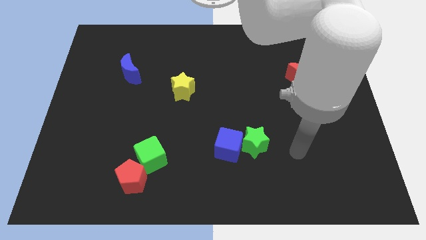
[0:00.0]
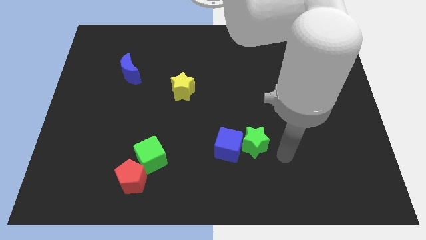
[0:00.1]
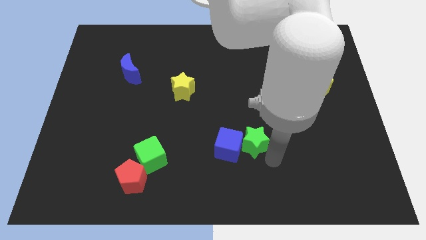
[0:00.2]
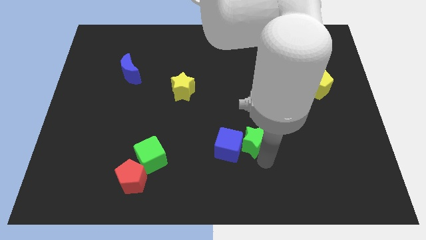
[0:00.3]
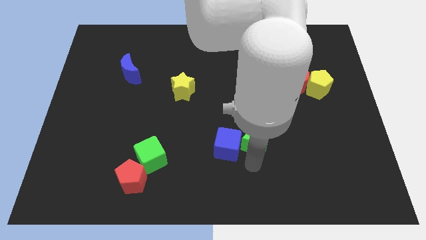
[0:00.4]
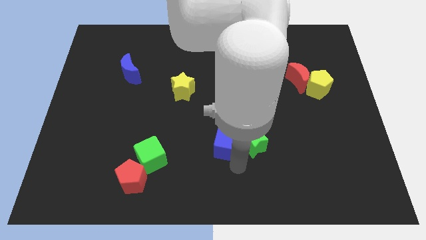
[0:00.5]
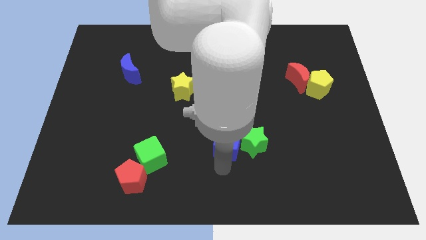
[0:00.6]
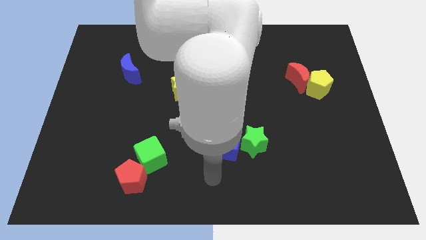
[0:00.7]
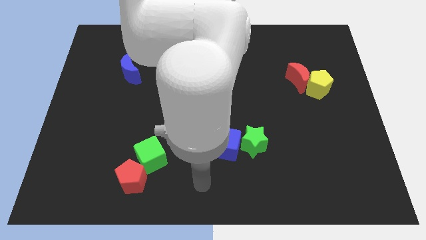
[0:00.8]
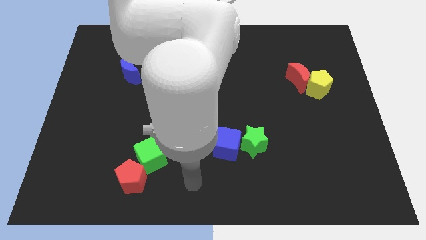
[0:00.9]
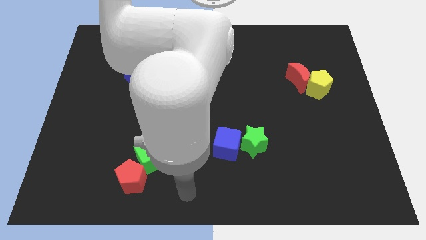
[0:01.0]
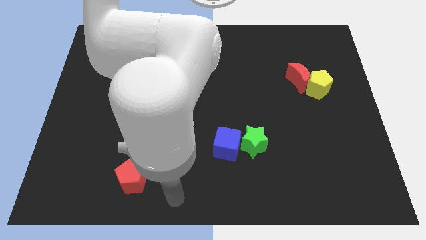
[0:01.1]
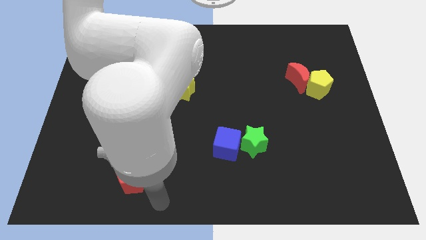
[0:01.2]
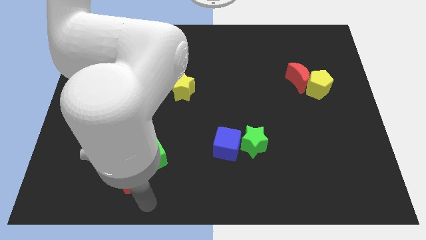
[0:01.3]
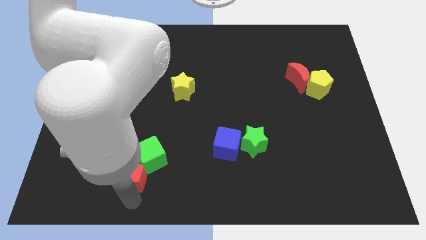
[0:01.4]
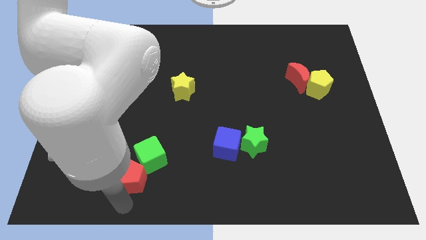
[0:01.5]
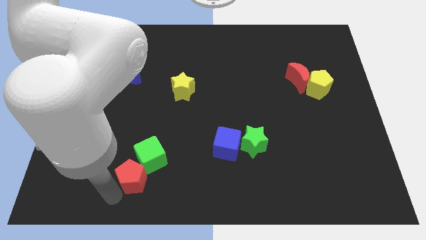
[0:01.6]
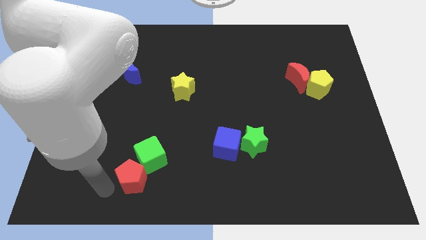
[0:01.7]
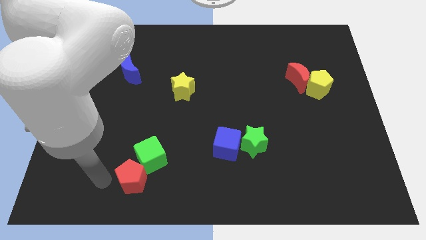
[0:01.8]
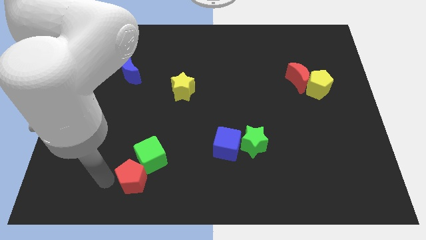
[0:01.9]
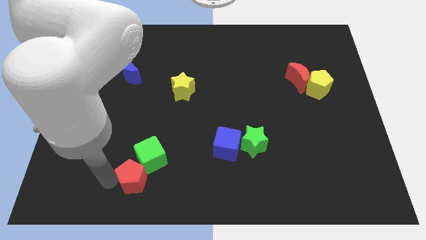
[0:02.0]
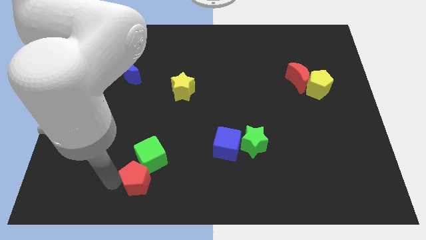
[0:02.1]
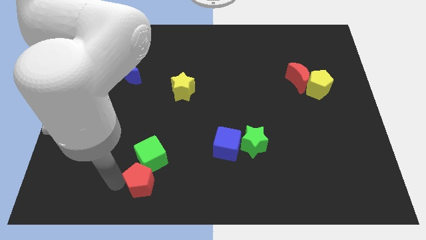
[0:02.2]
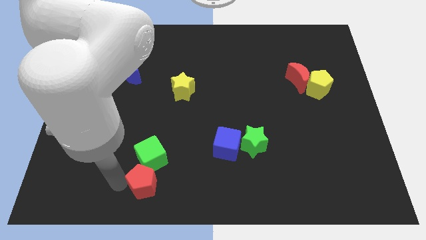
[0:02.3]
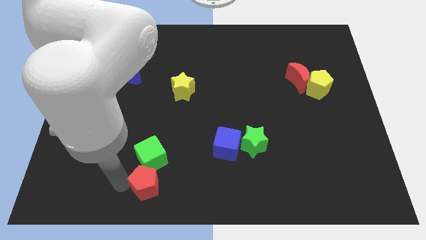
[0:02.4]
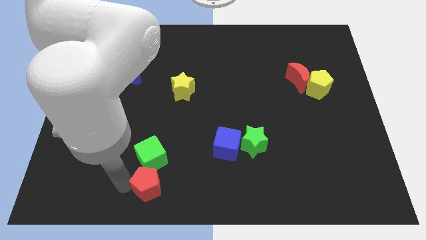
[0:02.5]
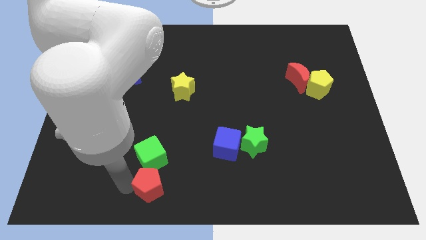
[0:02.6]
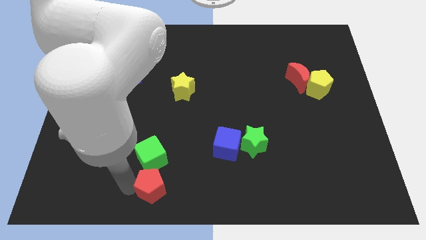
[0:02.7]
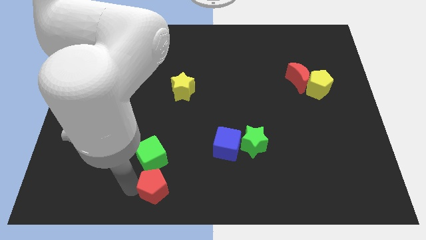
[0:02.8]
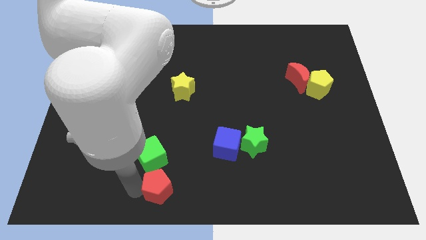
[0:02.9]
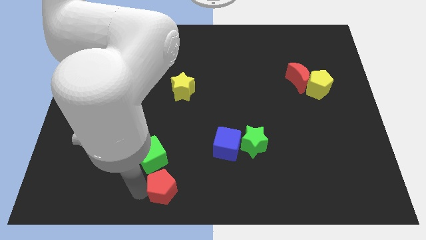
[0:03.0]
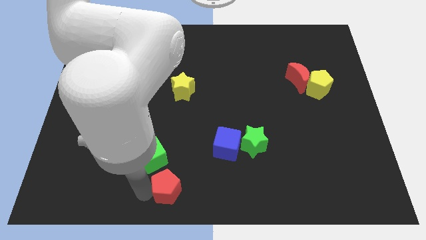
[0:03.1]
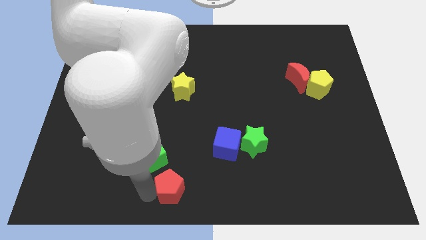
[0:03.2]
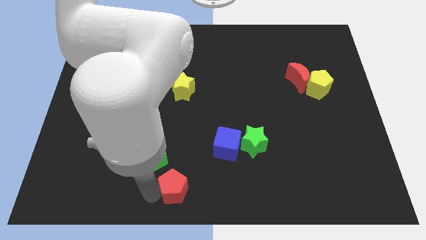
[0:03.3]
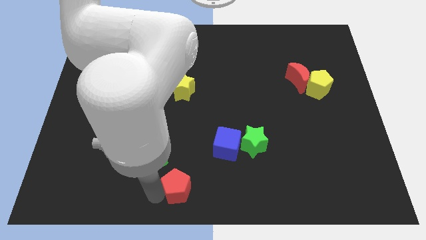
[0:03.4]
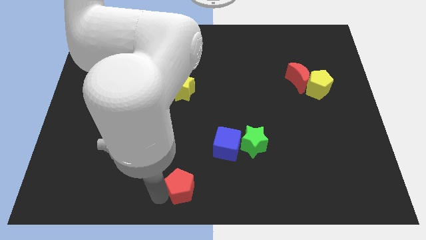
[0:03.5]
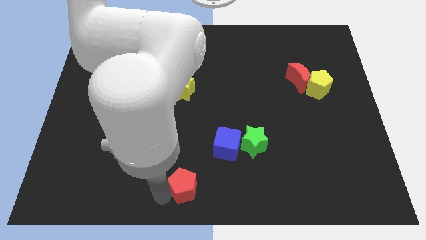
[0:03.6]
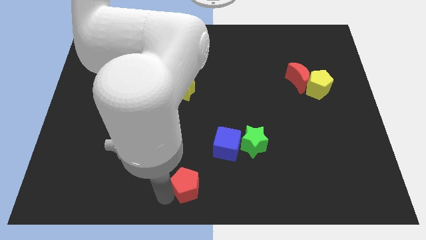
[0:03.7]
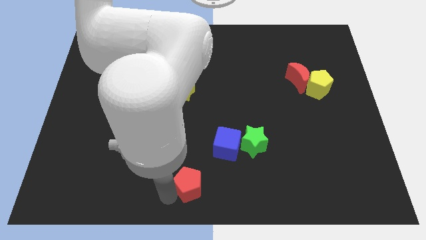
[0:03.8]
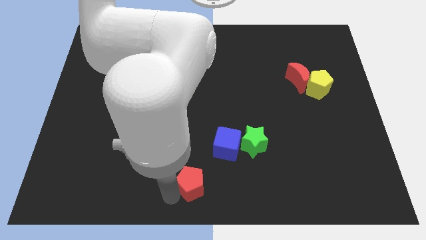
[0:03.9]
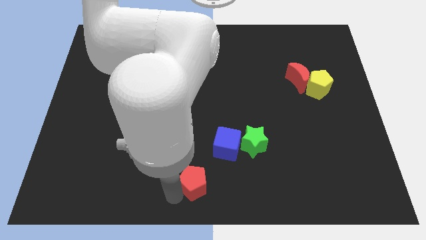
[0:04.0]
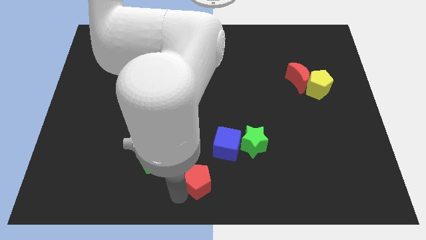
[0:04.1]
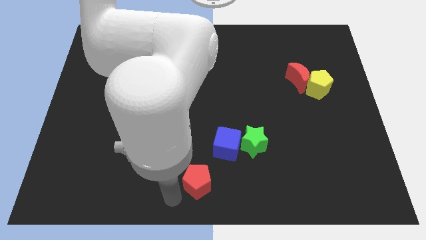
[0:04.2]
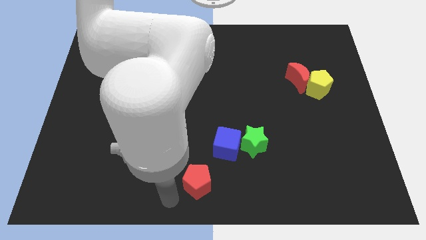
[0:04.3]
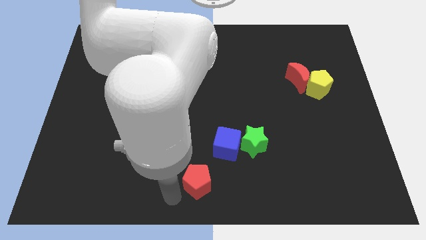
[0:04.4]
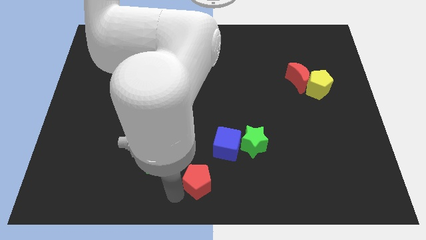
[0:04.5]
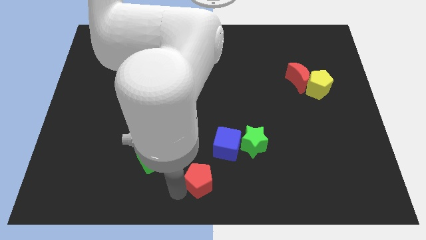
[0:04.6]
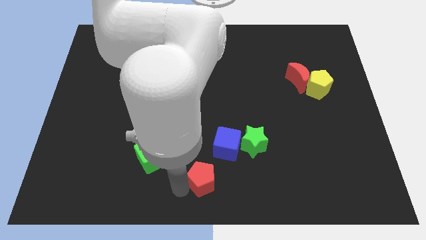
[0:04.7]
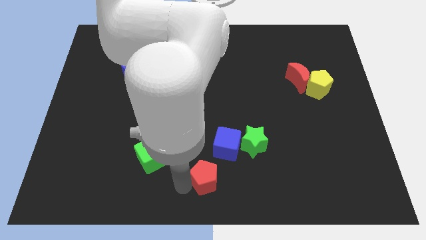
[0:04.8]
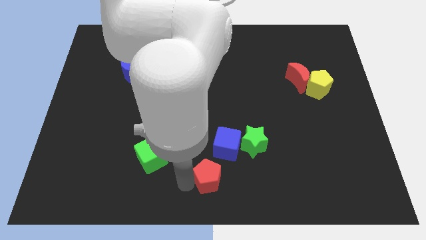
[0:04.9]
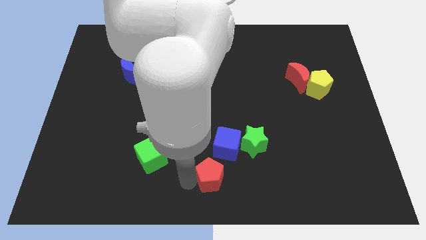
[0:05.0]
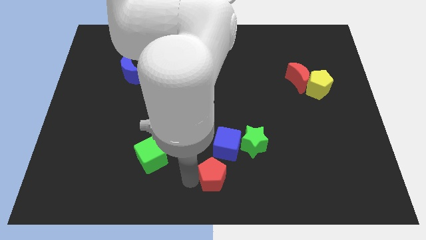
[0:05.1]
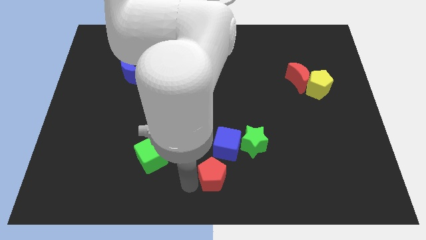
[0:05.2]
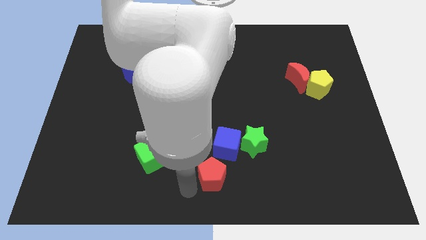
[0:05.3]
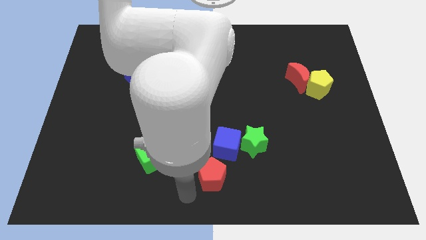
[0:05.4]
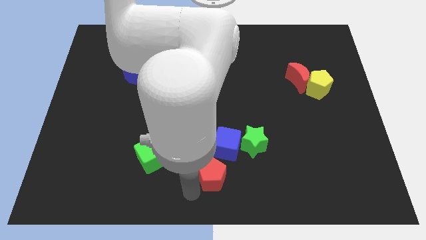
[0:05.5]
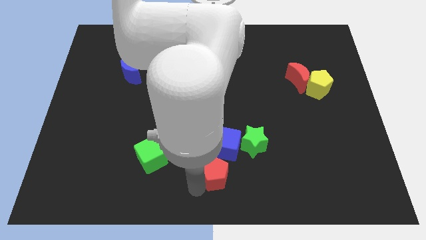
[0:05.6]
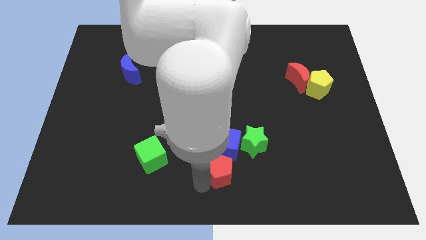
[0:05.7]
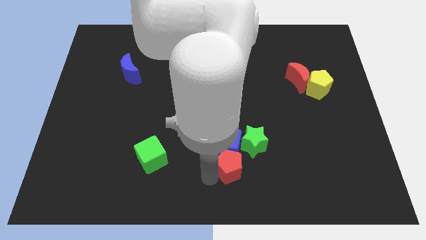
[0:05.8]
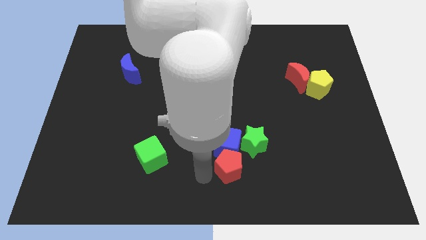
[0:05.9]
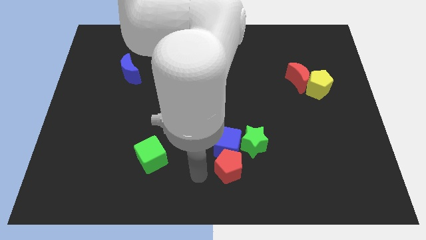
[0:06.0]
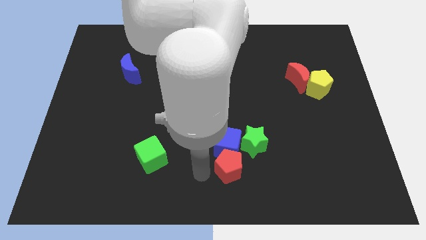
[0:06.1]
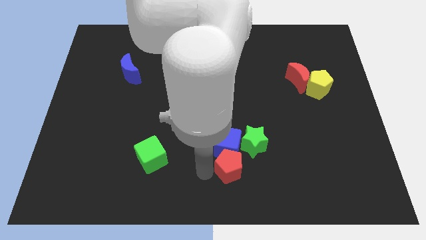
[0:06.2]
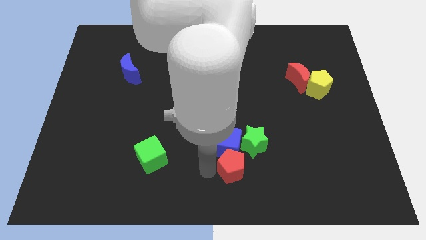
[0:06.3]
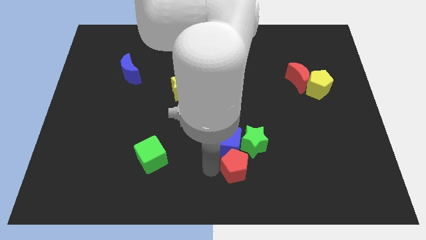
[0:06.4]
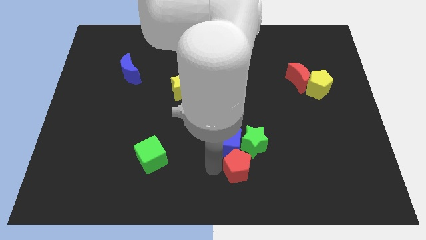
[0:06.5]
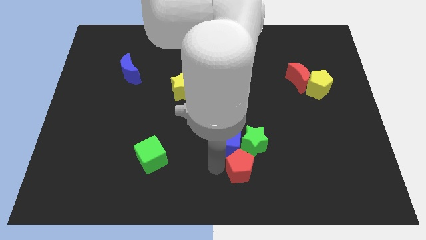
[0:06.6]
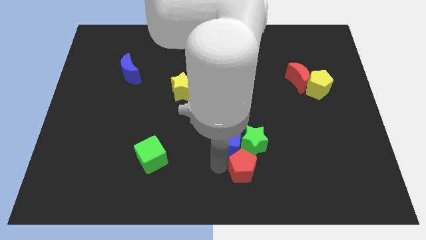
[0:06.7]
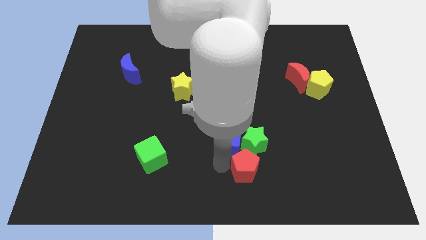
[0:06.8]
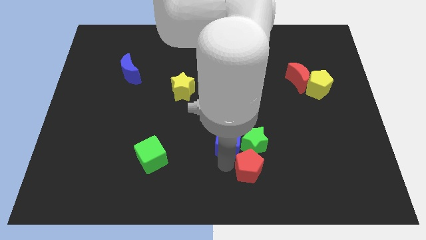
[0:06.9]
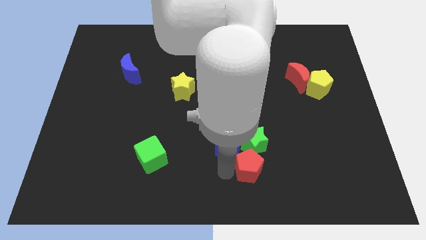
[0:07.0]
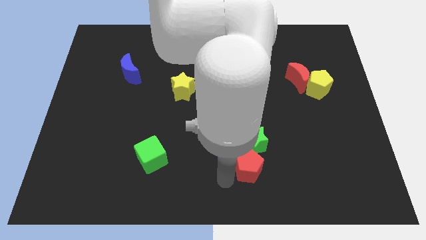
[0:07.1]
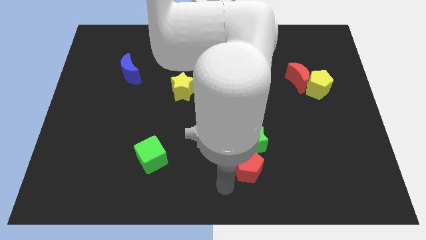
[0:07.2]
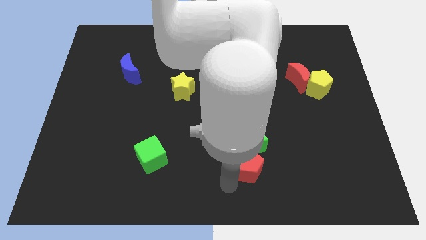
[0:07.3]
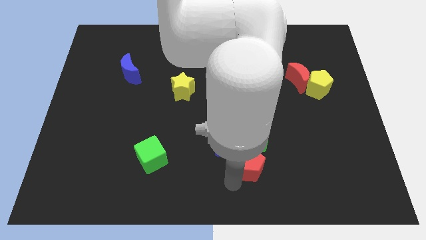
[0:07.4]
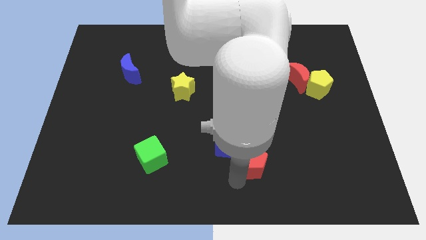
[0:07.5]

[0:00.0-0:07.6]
move the red pentagon just right of the blue cube
